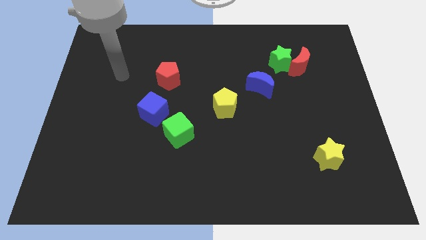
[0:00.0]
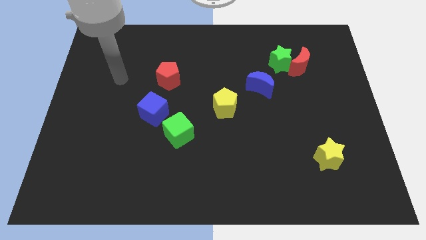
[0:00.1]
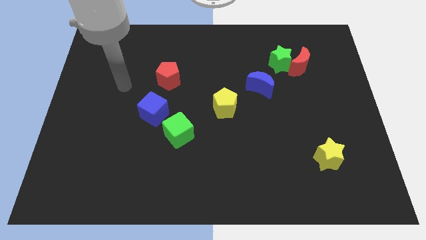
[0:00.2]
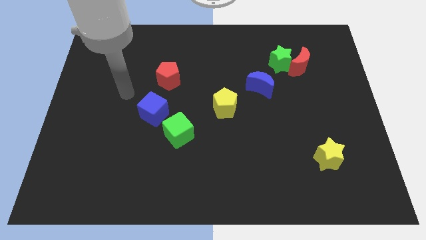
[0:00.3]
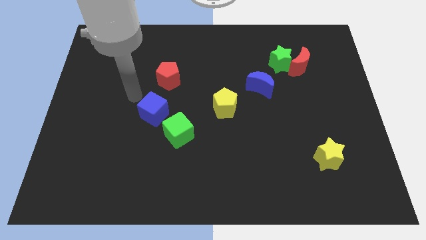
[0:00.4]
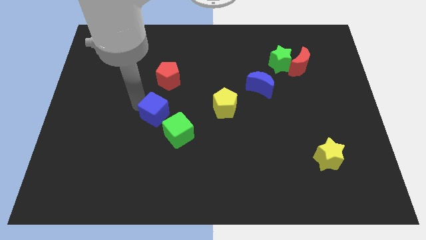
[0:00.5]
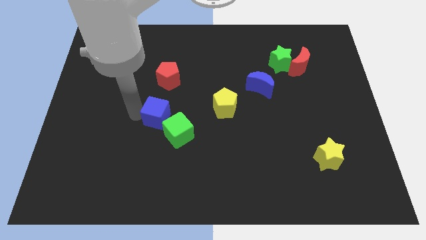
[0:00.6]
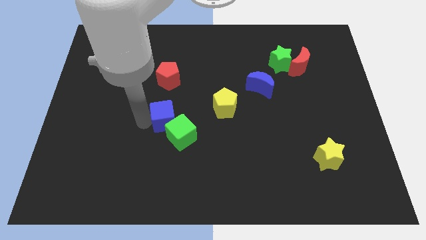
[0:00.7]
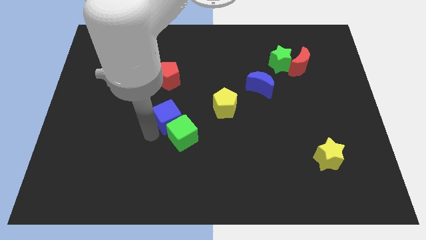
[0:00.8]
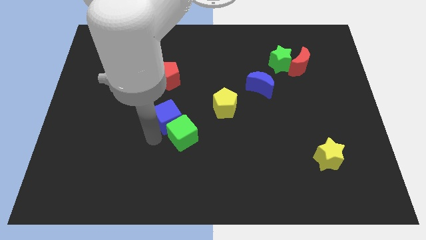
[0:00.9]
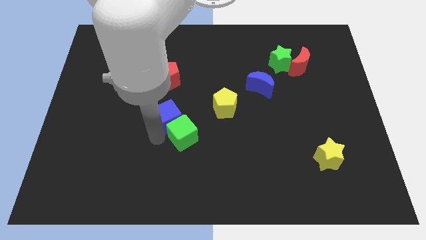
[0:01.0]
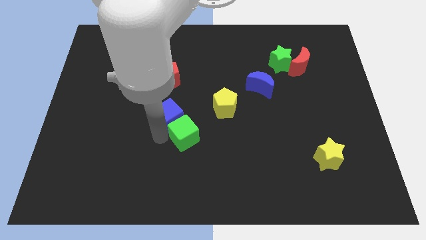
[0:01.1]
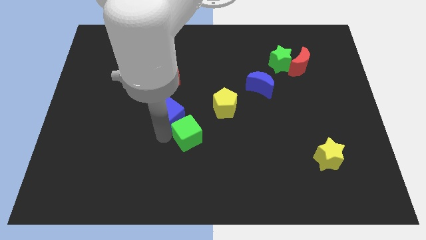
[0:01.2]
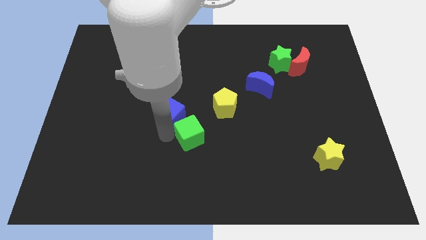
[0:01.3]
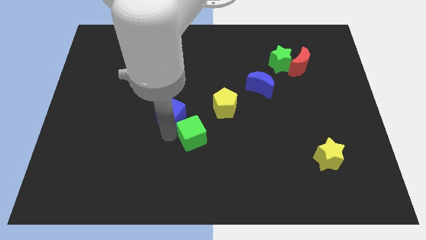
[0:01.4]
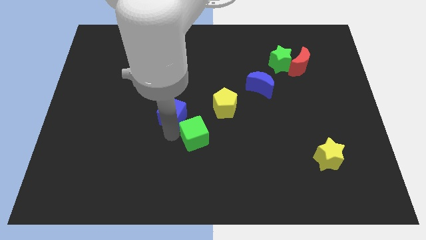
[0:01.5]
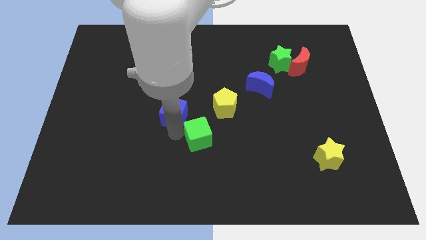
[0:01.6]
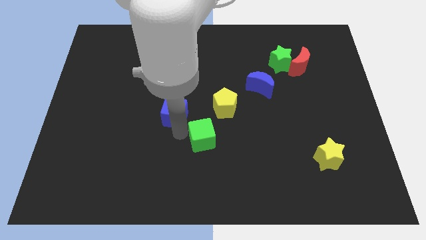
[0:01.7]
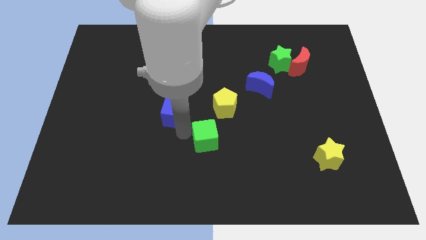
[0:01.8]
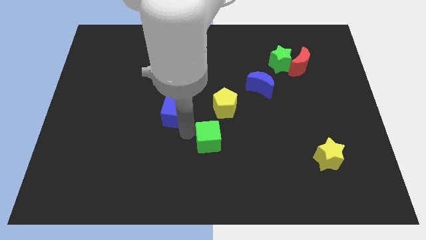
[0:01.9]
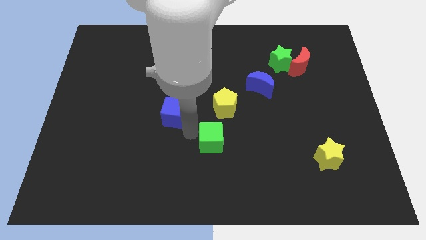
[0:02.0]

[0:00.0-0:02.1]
slide the green cube slightly to the right

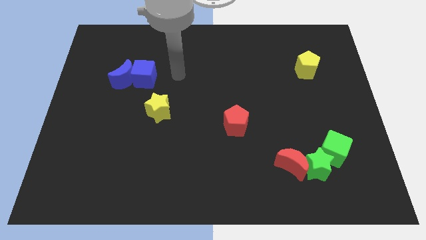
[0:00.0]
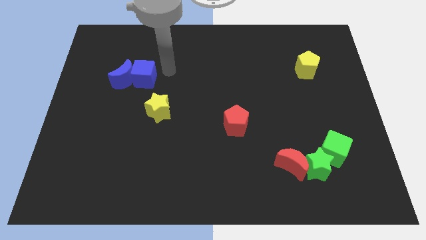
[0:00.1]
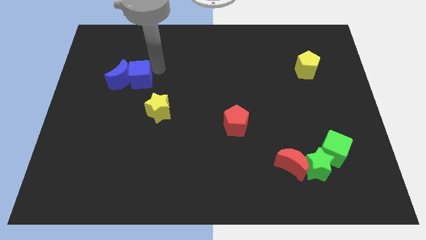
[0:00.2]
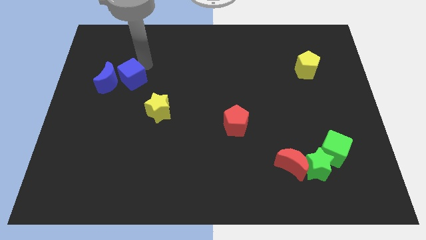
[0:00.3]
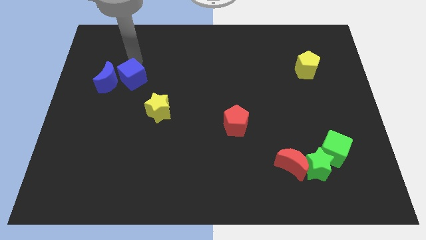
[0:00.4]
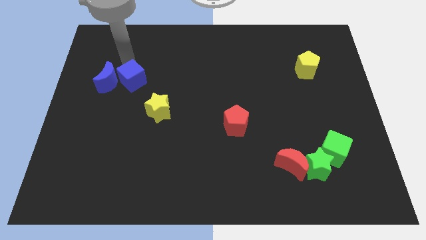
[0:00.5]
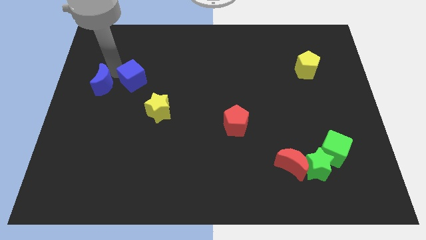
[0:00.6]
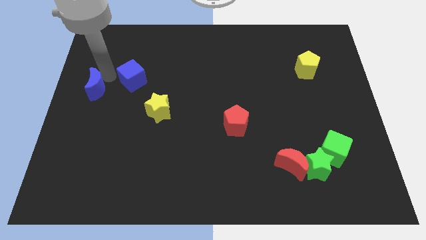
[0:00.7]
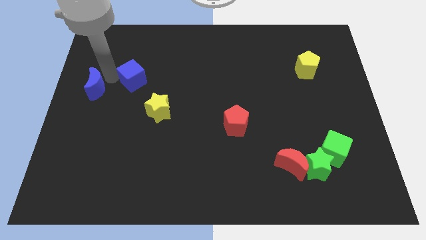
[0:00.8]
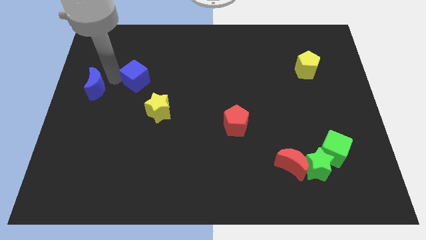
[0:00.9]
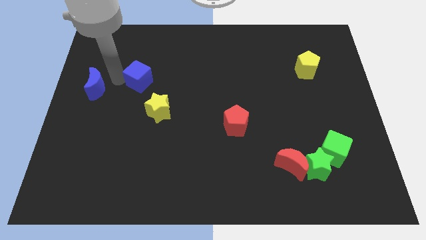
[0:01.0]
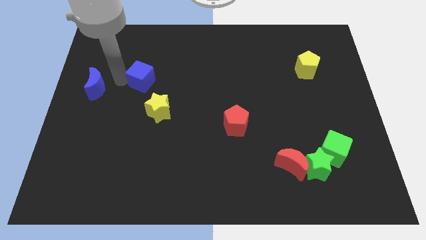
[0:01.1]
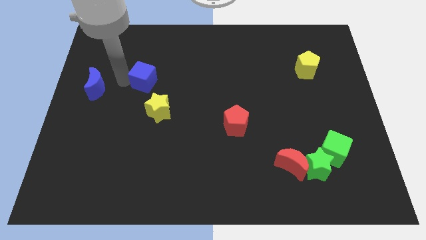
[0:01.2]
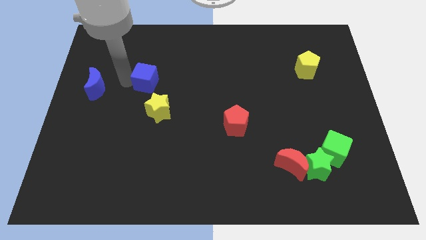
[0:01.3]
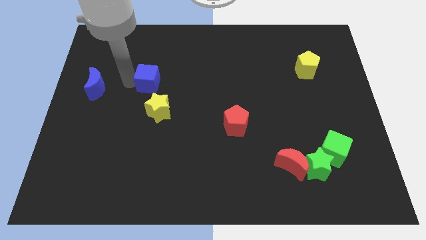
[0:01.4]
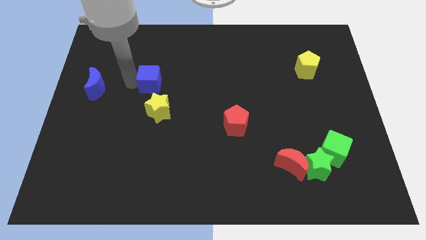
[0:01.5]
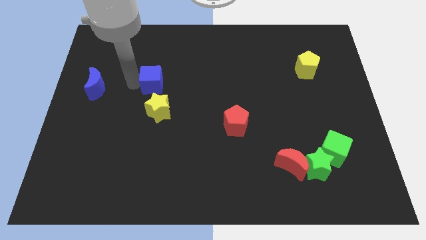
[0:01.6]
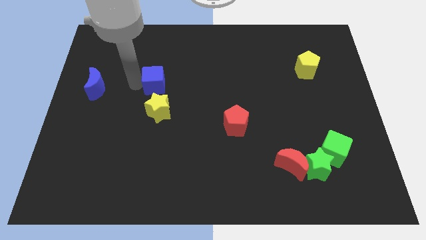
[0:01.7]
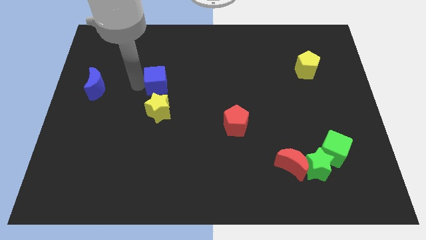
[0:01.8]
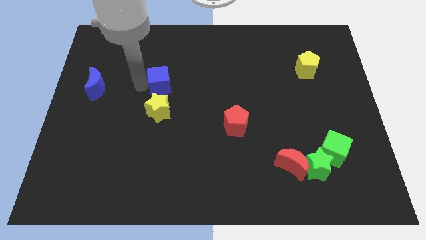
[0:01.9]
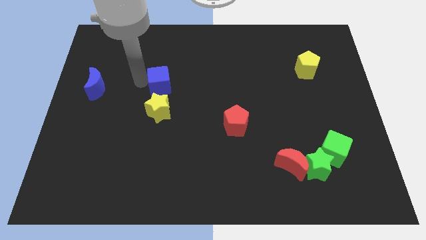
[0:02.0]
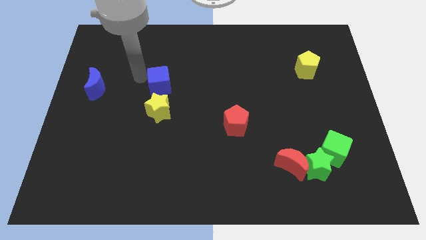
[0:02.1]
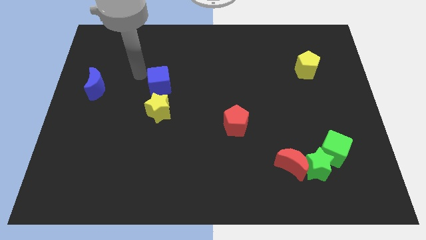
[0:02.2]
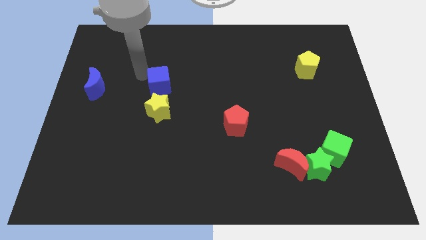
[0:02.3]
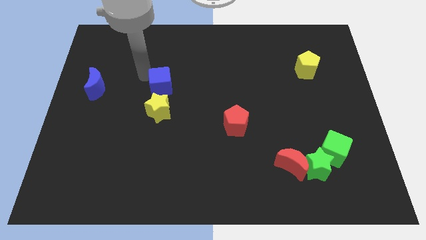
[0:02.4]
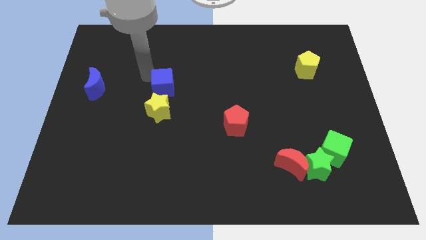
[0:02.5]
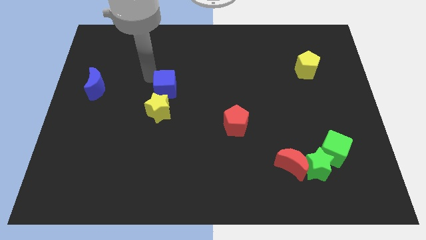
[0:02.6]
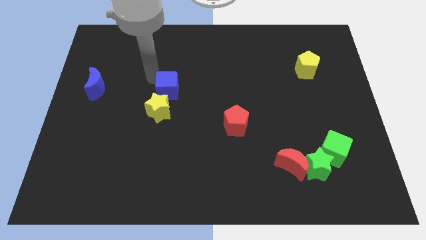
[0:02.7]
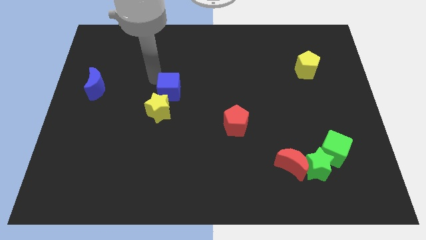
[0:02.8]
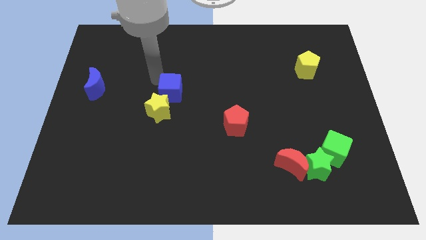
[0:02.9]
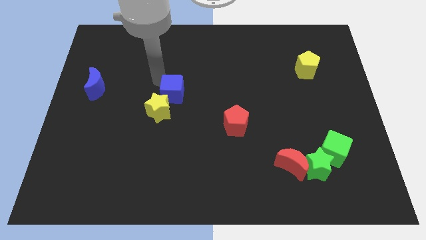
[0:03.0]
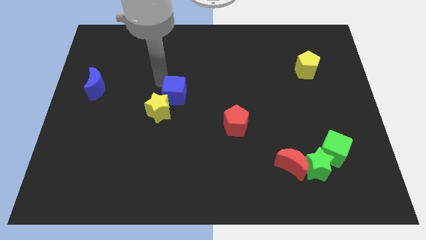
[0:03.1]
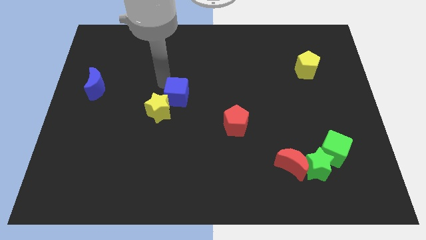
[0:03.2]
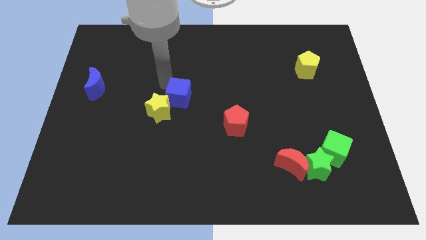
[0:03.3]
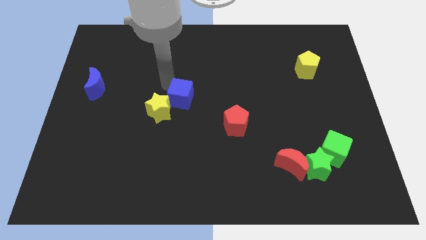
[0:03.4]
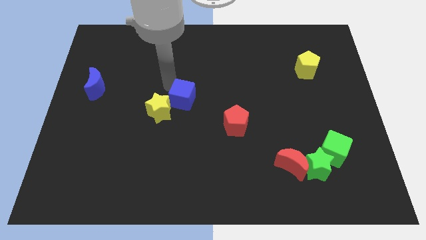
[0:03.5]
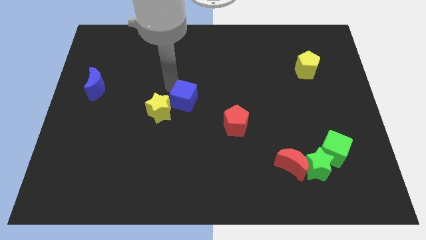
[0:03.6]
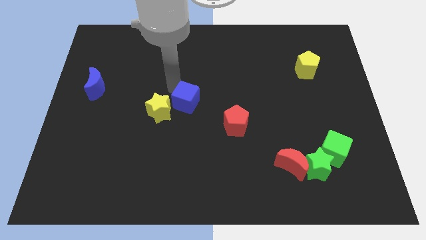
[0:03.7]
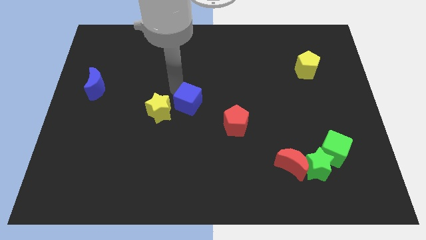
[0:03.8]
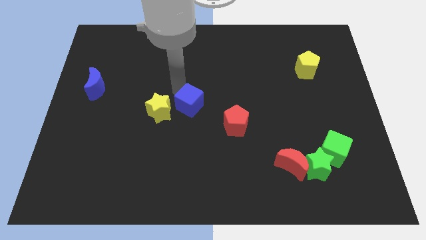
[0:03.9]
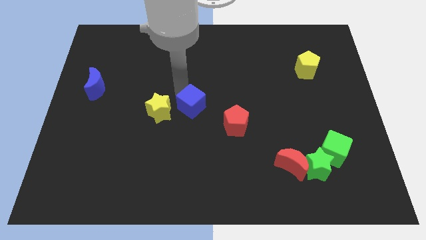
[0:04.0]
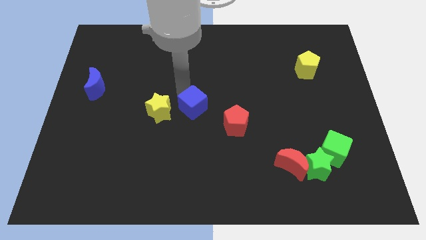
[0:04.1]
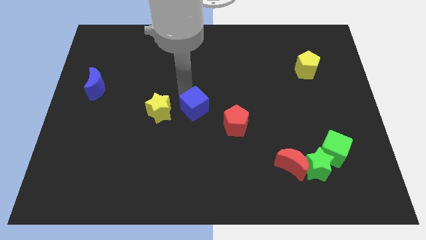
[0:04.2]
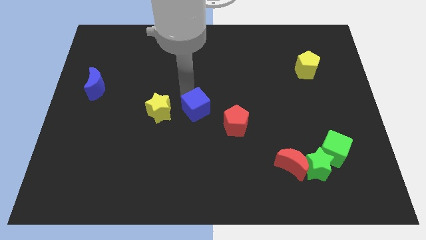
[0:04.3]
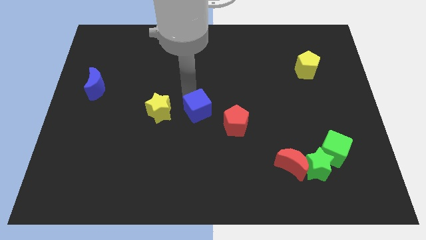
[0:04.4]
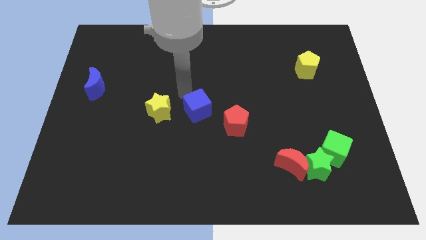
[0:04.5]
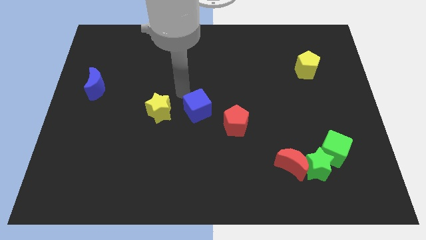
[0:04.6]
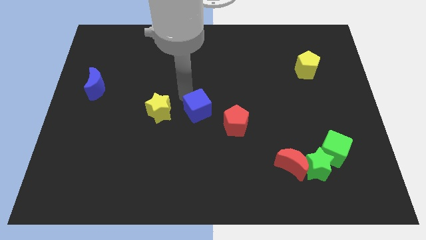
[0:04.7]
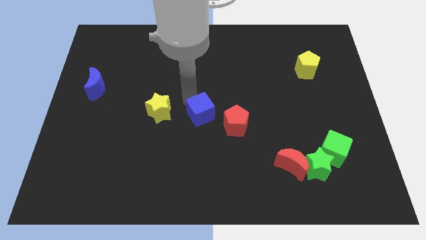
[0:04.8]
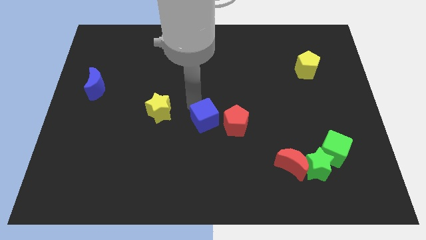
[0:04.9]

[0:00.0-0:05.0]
slide the blue cube diagonally down and right

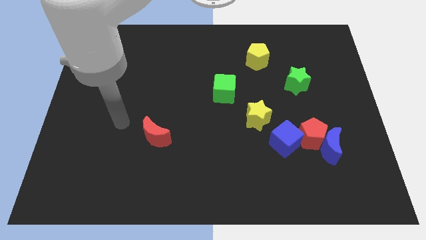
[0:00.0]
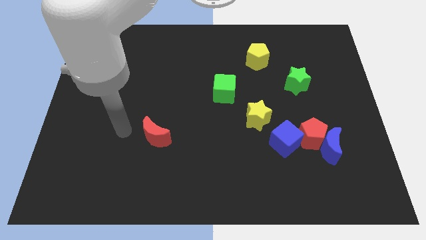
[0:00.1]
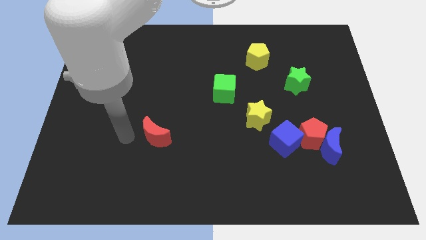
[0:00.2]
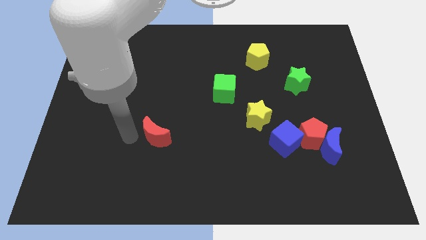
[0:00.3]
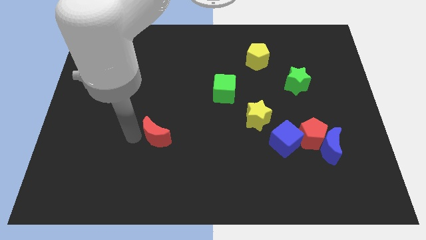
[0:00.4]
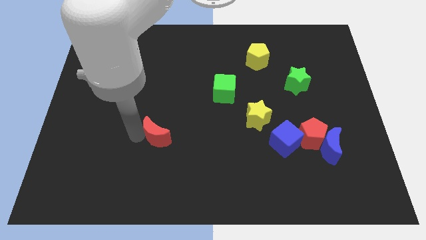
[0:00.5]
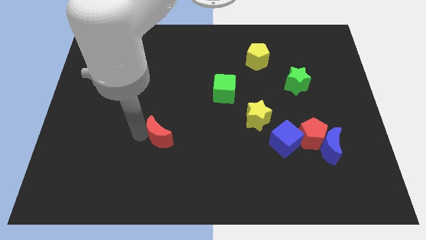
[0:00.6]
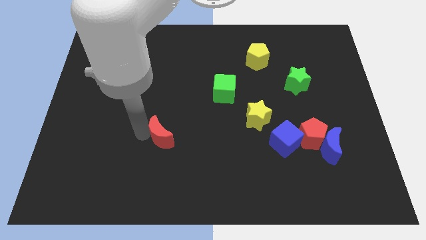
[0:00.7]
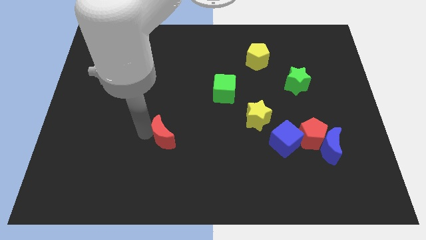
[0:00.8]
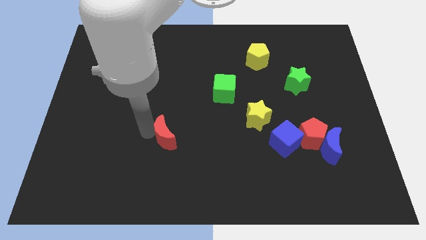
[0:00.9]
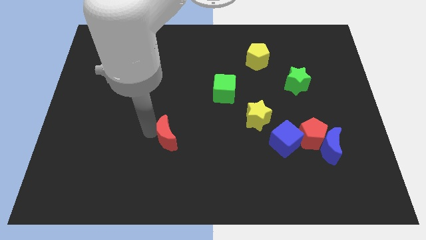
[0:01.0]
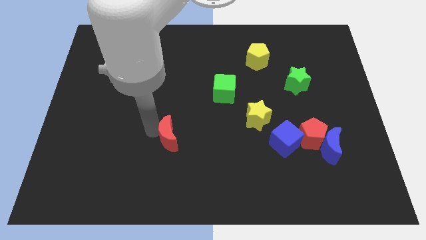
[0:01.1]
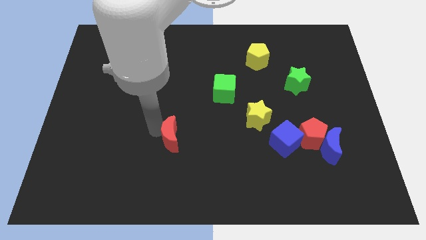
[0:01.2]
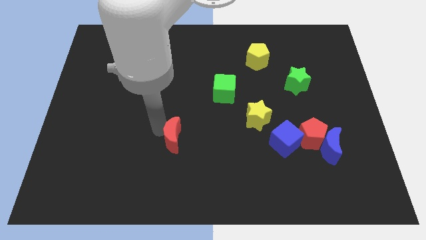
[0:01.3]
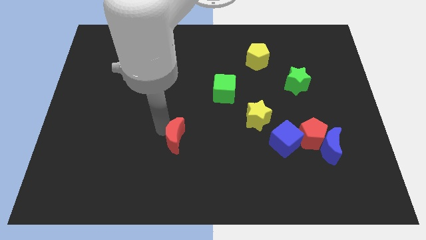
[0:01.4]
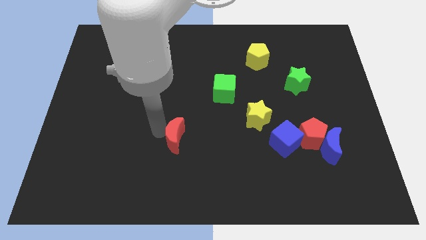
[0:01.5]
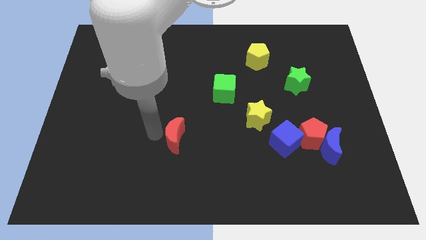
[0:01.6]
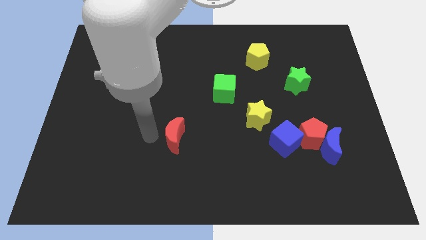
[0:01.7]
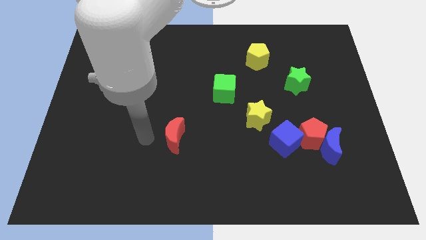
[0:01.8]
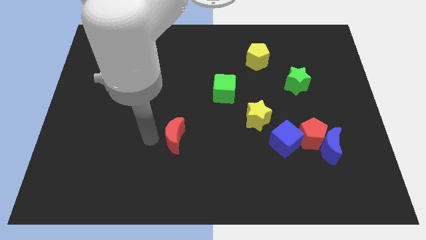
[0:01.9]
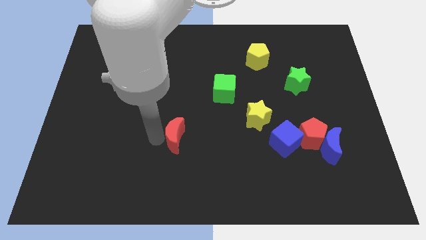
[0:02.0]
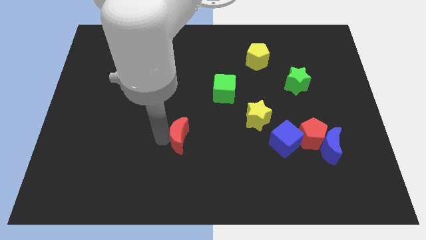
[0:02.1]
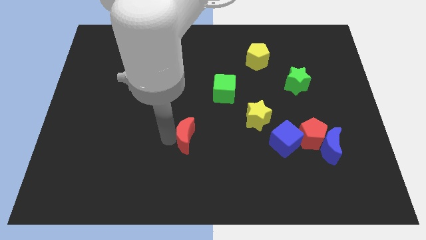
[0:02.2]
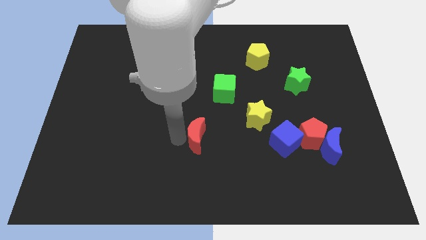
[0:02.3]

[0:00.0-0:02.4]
slide the red moon right slightly
